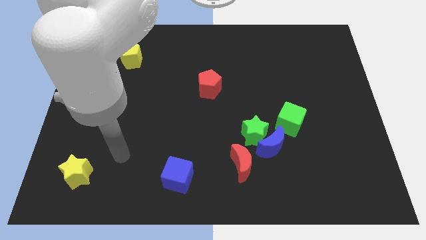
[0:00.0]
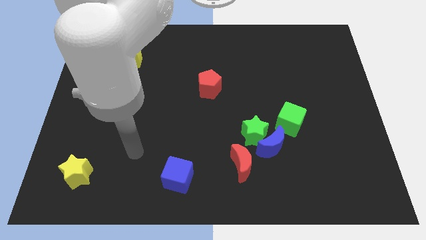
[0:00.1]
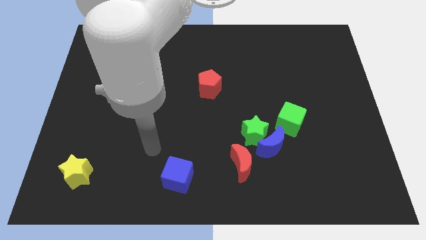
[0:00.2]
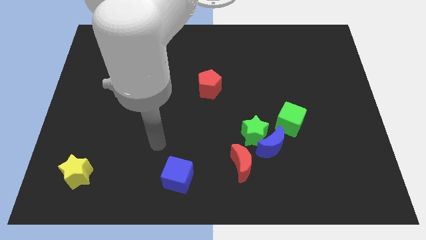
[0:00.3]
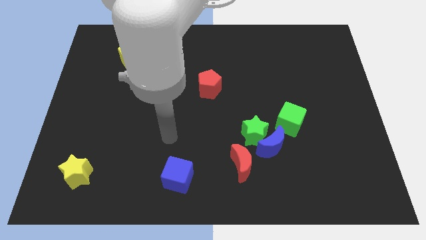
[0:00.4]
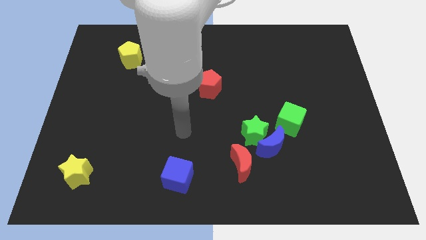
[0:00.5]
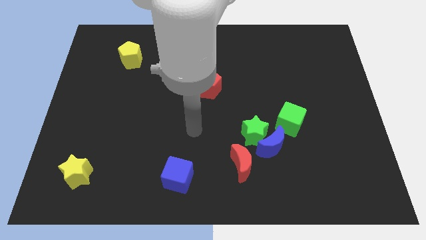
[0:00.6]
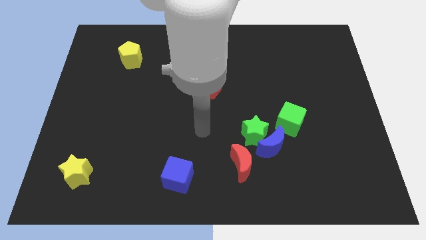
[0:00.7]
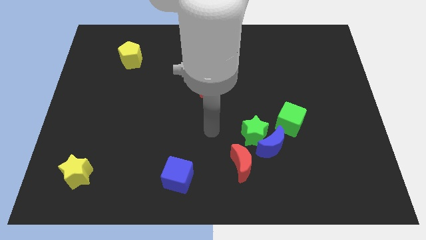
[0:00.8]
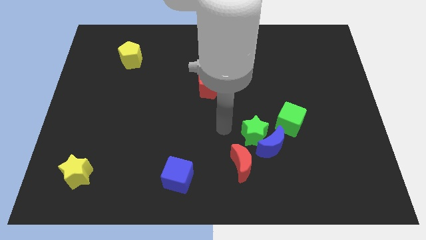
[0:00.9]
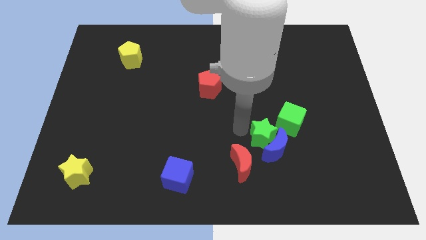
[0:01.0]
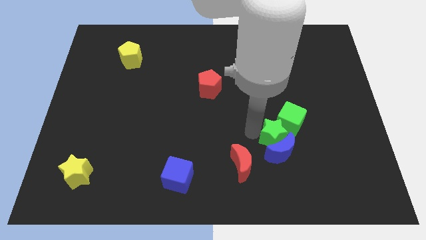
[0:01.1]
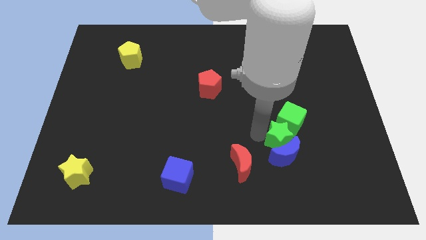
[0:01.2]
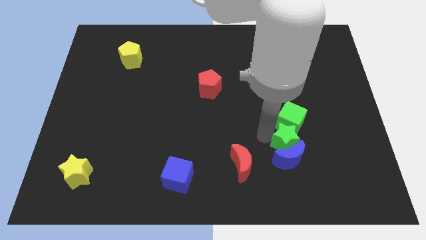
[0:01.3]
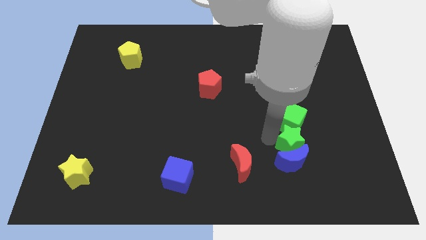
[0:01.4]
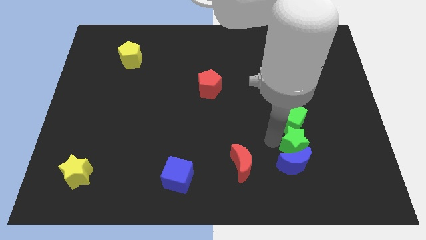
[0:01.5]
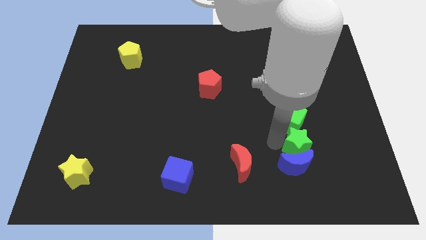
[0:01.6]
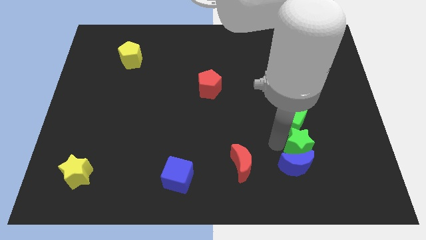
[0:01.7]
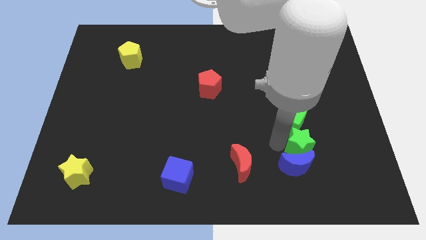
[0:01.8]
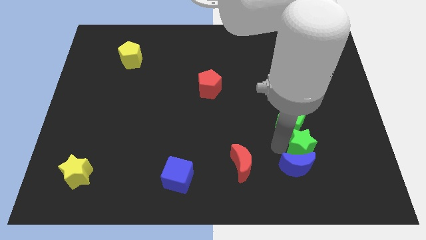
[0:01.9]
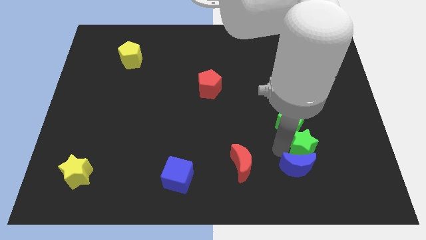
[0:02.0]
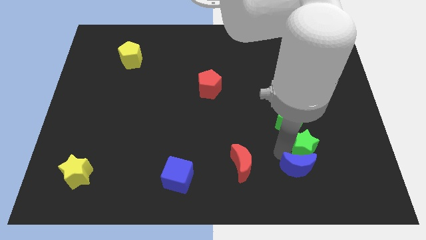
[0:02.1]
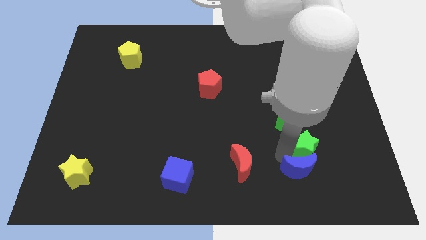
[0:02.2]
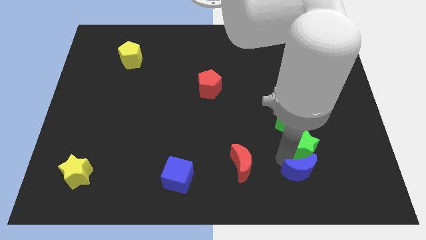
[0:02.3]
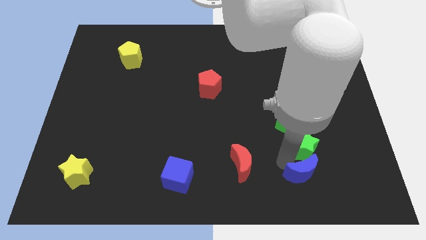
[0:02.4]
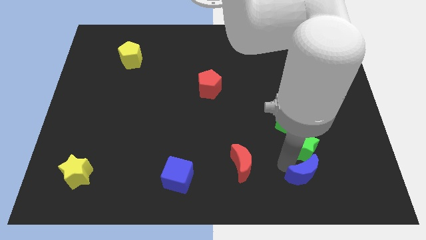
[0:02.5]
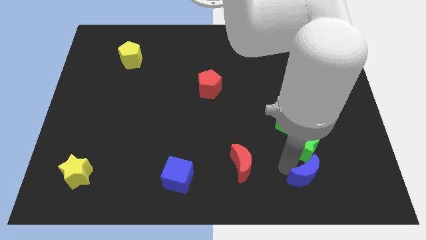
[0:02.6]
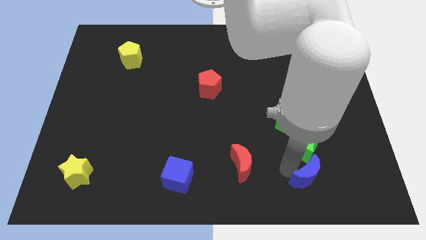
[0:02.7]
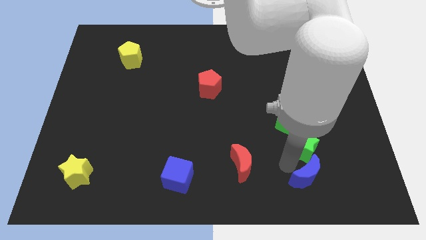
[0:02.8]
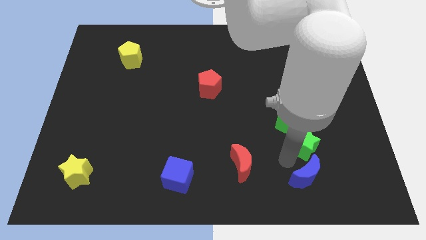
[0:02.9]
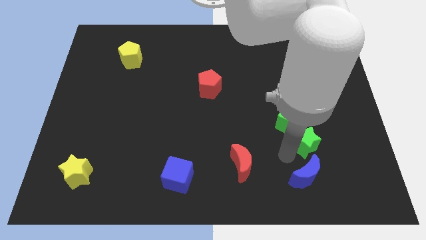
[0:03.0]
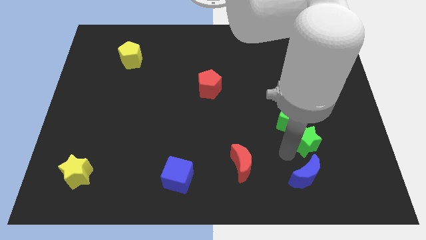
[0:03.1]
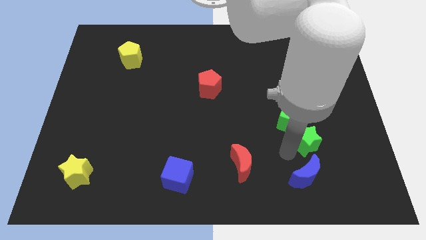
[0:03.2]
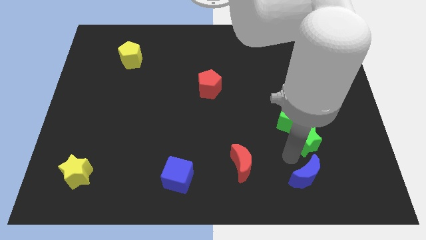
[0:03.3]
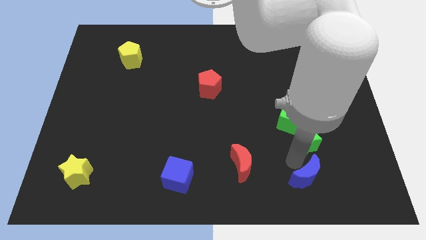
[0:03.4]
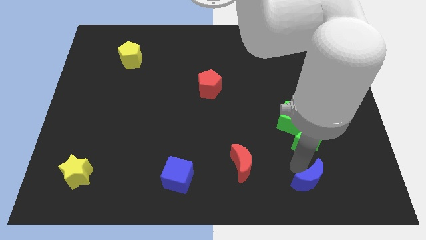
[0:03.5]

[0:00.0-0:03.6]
pull the blue moon apart from the group of blocks

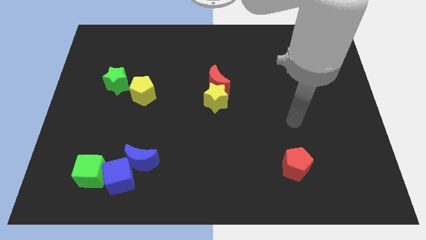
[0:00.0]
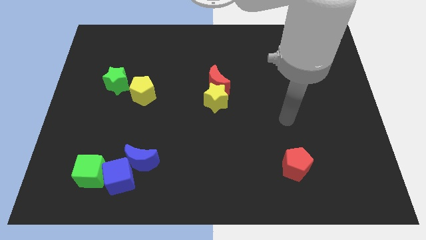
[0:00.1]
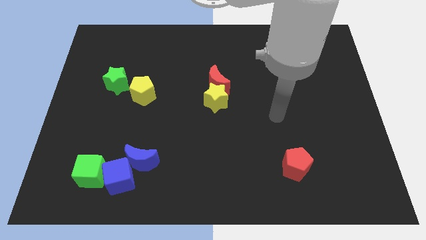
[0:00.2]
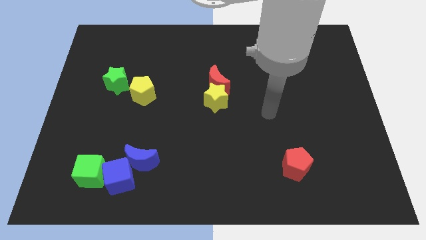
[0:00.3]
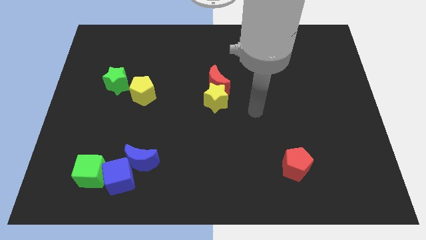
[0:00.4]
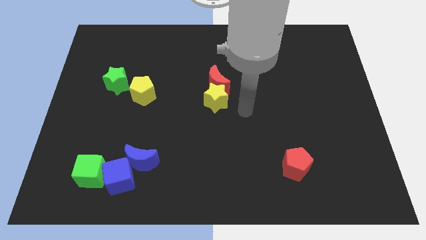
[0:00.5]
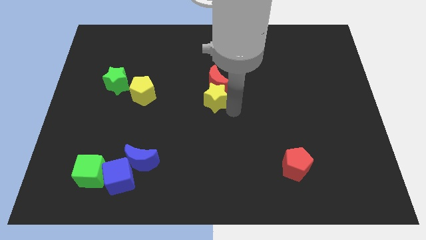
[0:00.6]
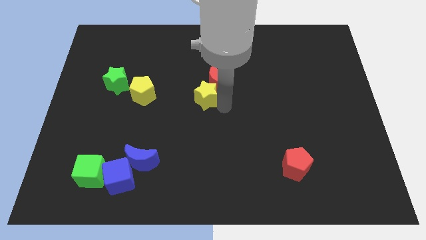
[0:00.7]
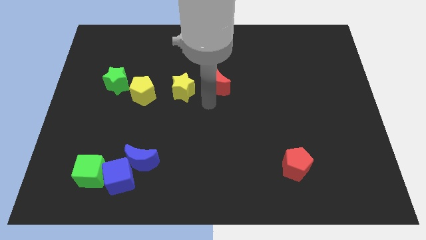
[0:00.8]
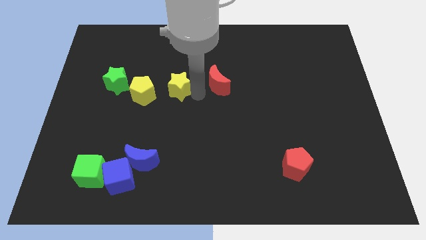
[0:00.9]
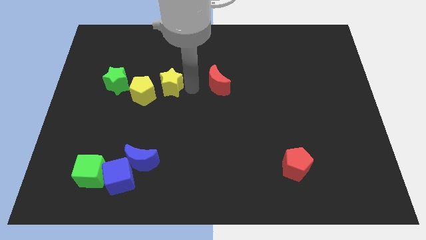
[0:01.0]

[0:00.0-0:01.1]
pull the red moon apart from the yellow star

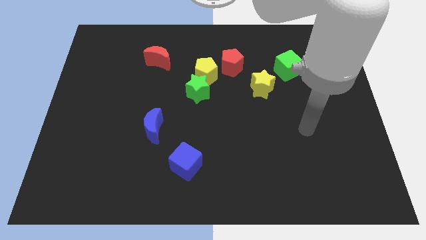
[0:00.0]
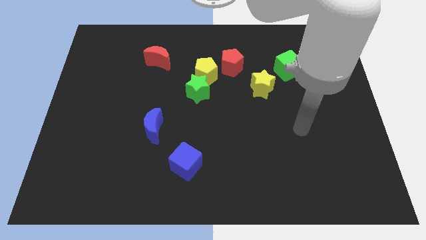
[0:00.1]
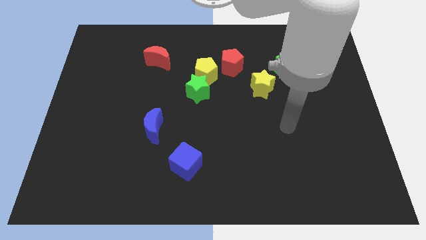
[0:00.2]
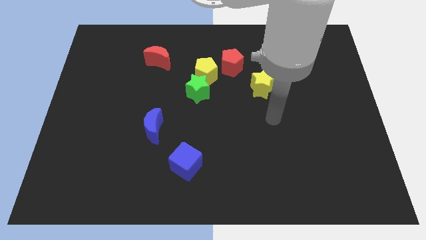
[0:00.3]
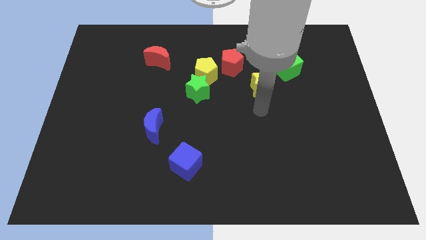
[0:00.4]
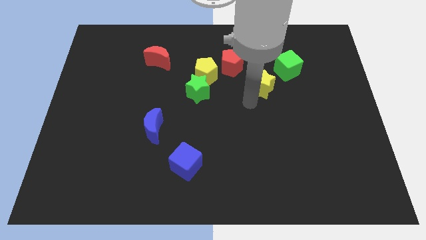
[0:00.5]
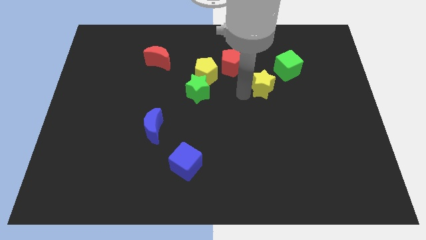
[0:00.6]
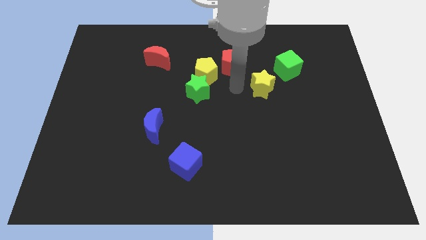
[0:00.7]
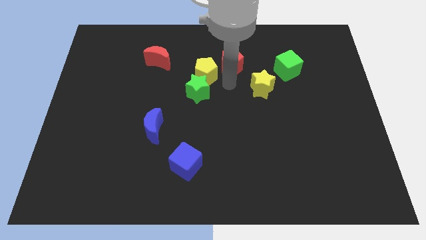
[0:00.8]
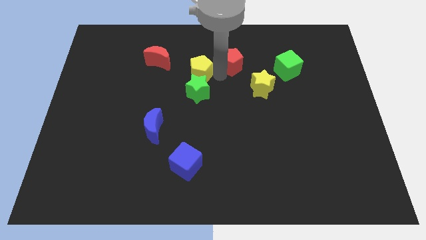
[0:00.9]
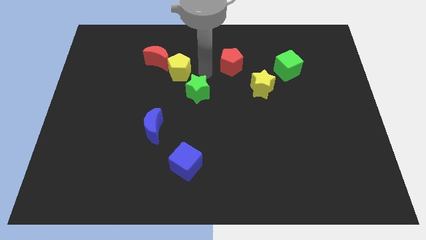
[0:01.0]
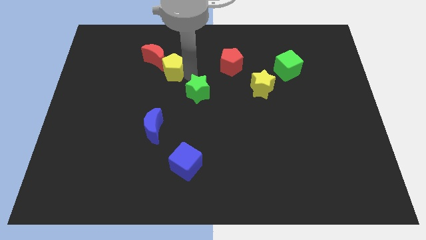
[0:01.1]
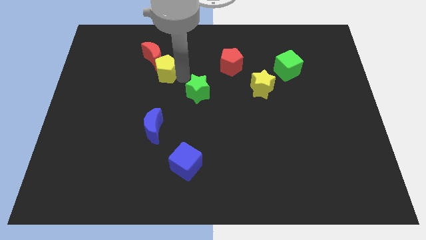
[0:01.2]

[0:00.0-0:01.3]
move the green star away from the yellow pentagon

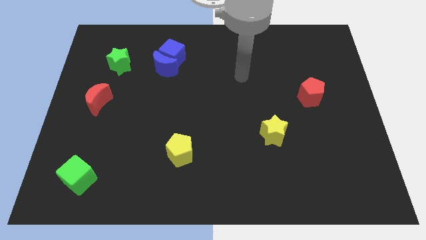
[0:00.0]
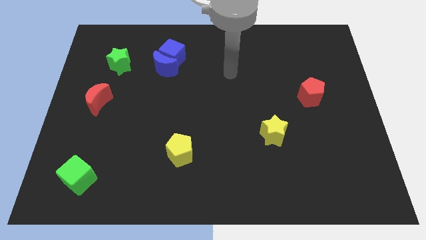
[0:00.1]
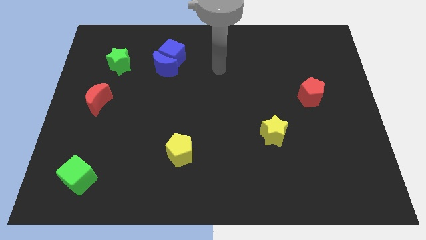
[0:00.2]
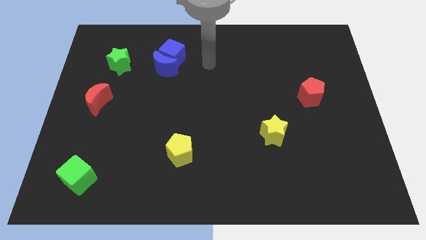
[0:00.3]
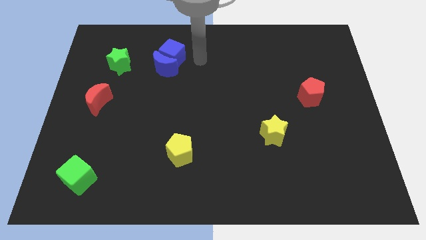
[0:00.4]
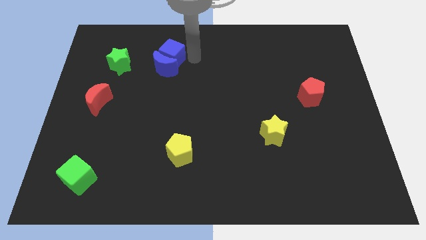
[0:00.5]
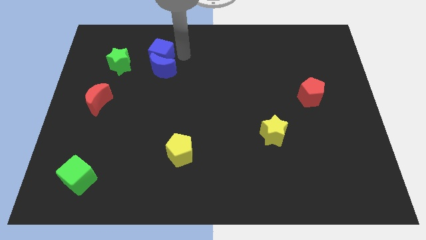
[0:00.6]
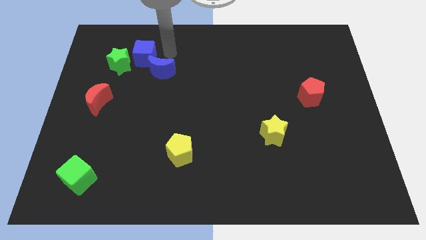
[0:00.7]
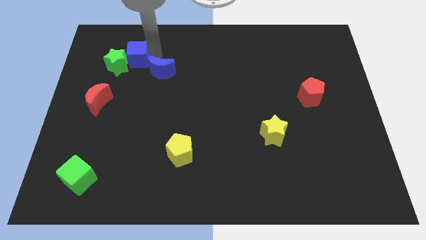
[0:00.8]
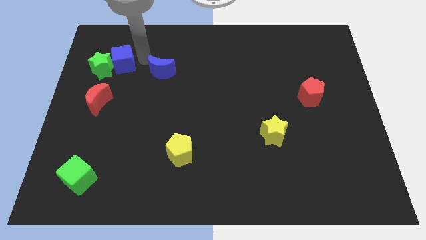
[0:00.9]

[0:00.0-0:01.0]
pull the blue moon apart from the blue cube

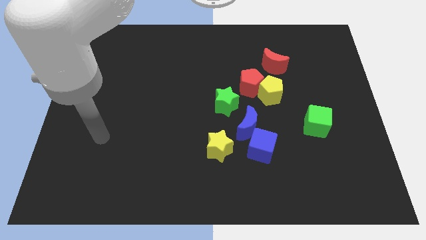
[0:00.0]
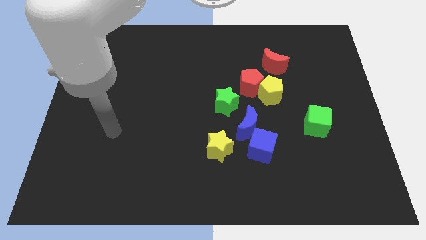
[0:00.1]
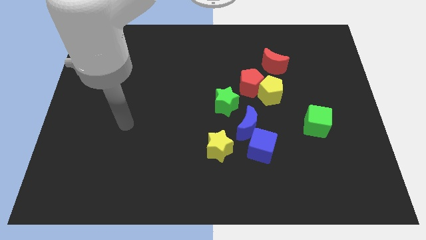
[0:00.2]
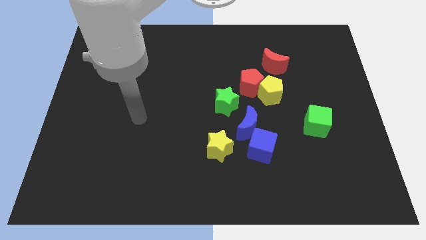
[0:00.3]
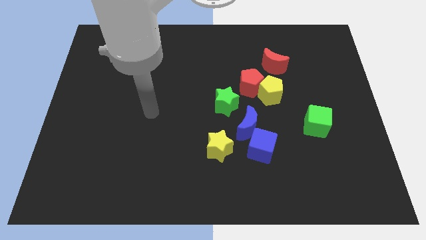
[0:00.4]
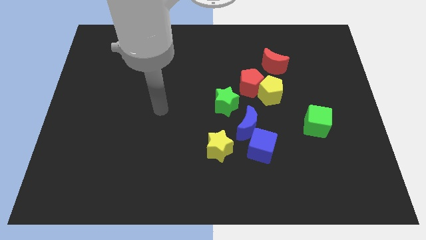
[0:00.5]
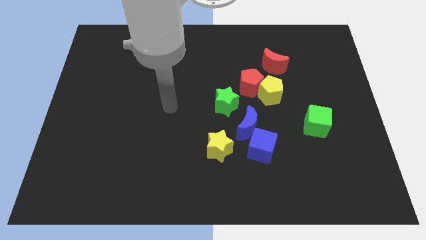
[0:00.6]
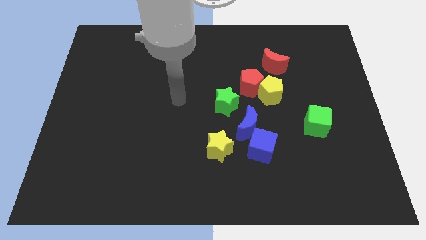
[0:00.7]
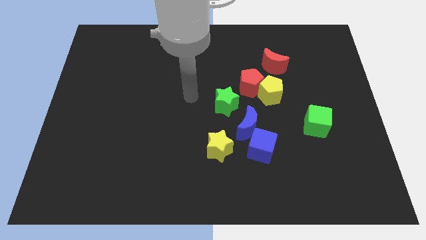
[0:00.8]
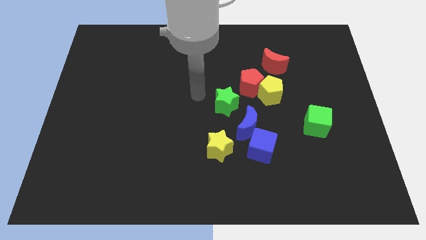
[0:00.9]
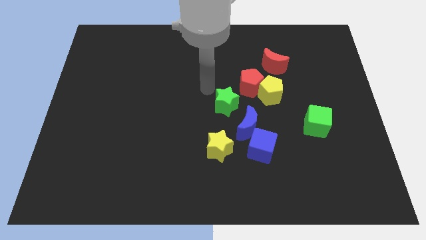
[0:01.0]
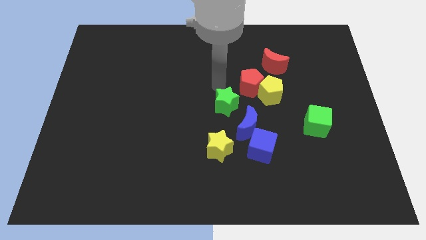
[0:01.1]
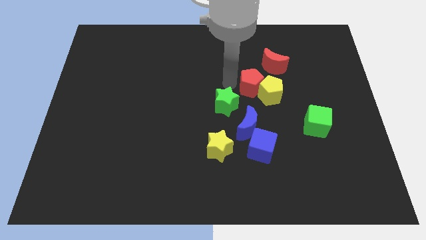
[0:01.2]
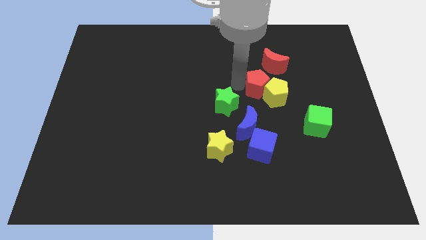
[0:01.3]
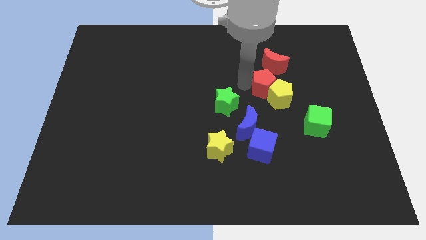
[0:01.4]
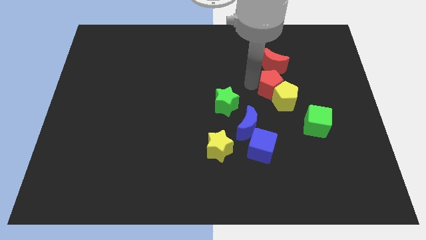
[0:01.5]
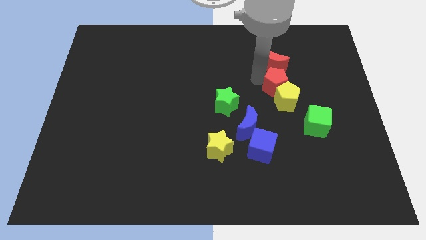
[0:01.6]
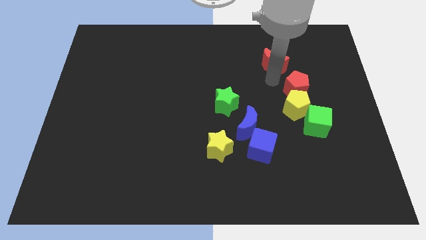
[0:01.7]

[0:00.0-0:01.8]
separate the yellow pentagon from the red pentagon and red moon

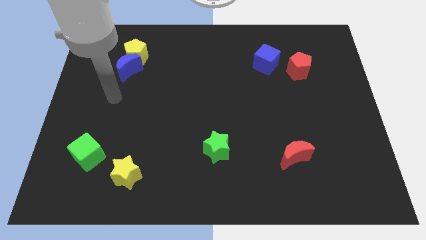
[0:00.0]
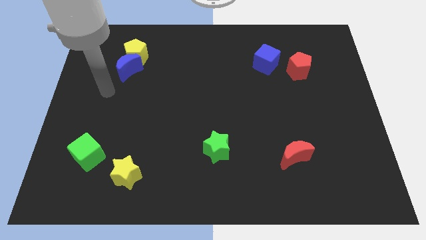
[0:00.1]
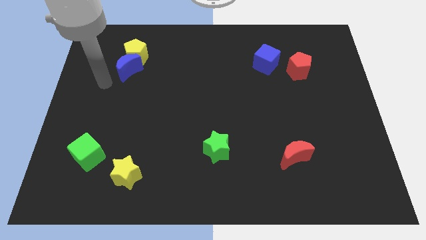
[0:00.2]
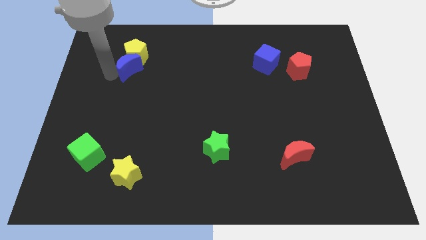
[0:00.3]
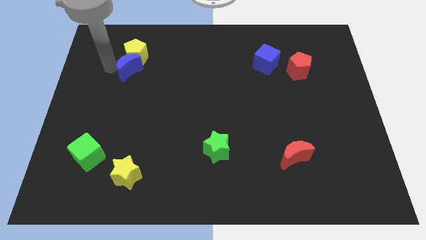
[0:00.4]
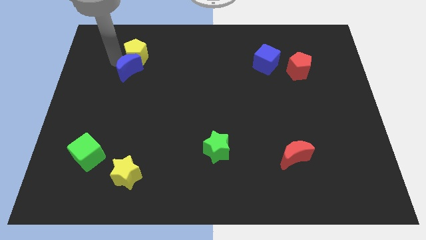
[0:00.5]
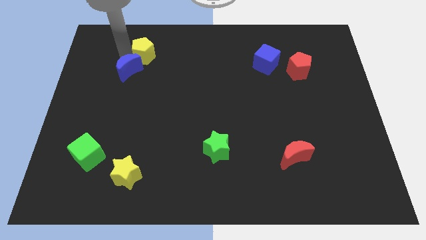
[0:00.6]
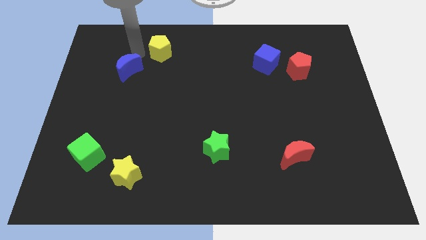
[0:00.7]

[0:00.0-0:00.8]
separate the blue moon from the yellow pentagon
